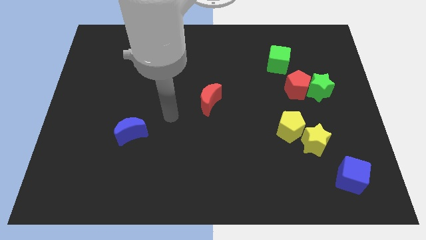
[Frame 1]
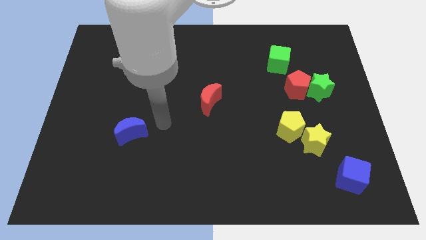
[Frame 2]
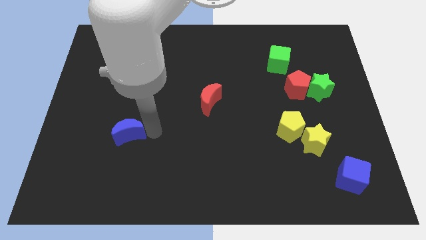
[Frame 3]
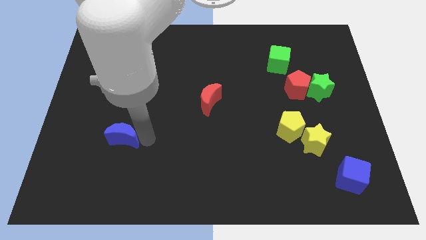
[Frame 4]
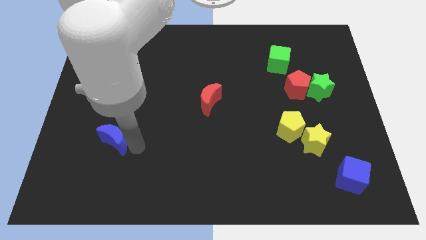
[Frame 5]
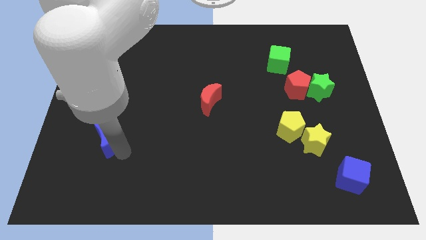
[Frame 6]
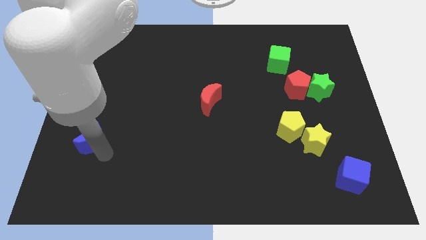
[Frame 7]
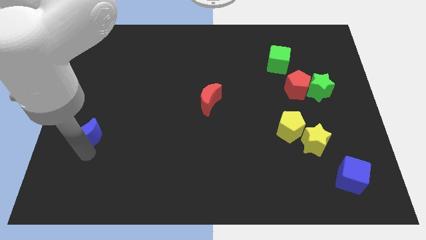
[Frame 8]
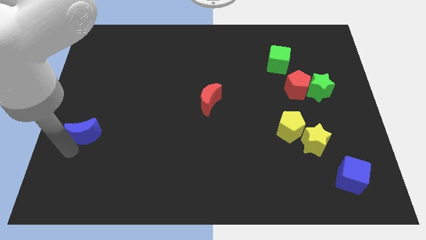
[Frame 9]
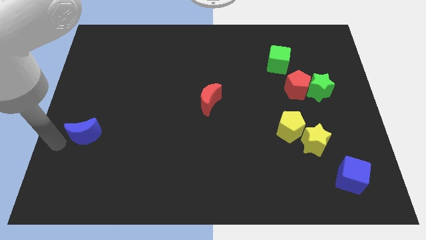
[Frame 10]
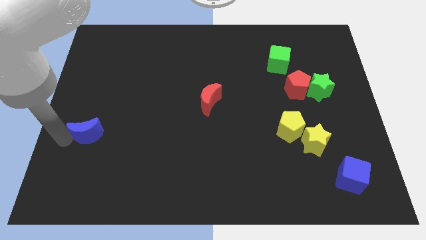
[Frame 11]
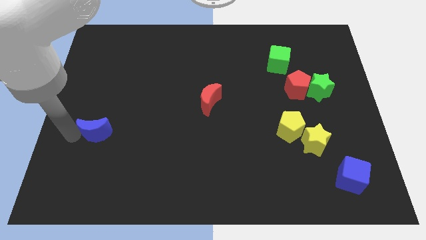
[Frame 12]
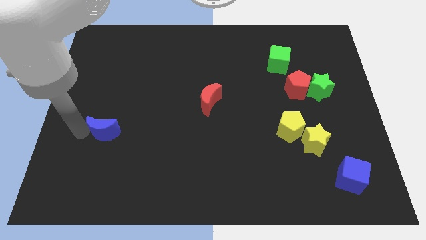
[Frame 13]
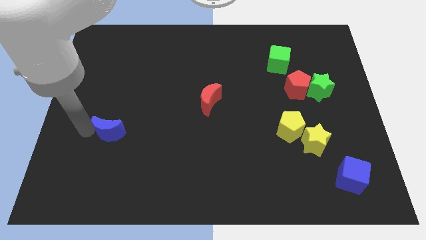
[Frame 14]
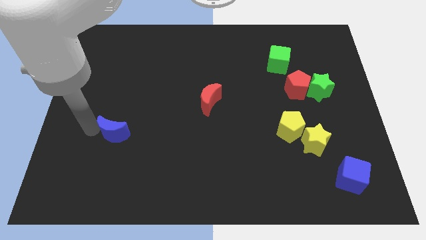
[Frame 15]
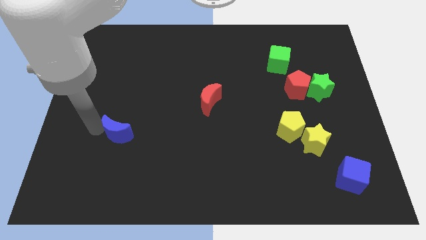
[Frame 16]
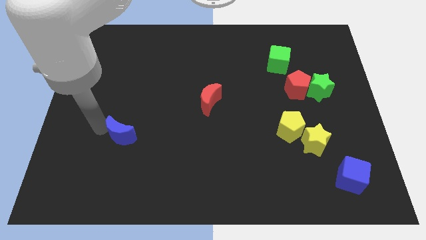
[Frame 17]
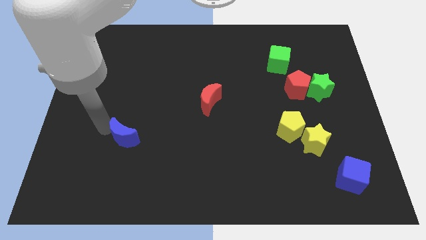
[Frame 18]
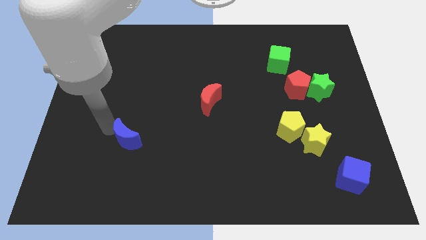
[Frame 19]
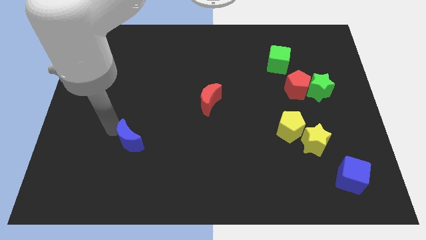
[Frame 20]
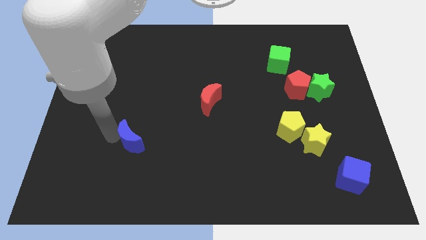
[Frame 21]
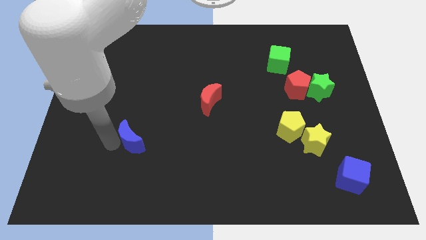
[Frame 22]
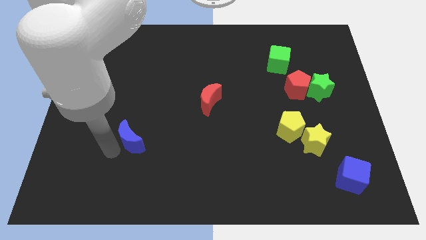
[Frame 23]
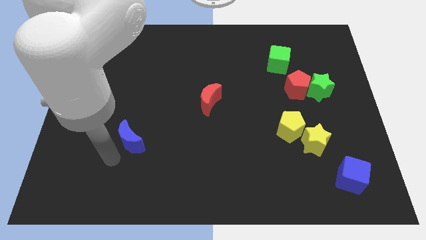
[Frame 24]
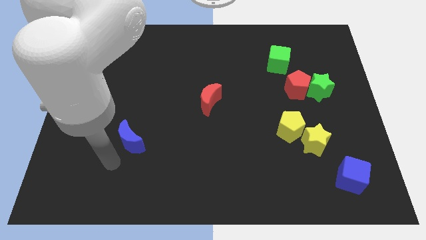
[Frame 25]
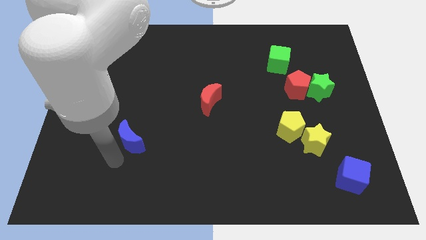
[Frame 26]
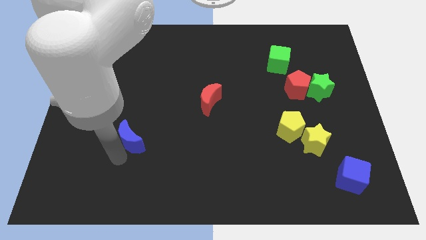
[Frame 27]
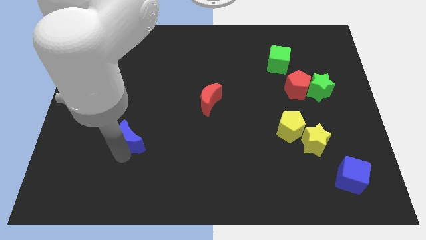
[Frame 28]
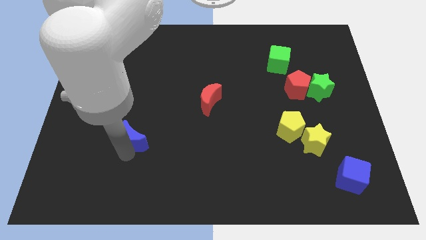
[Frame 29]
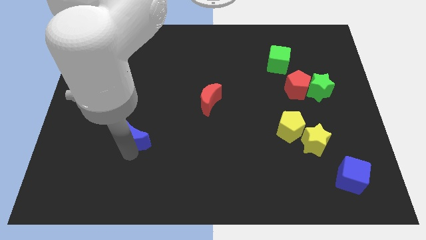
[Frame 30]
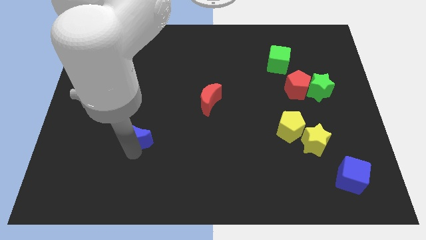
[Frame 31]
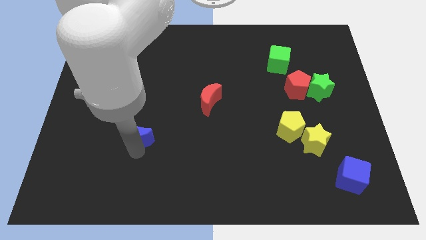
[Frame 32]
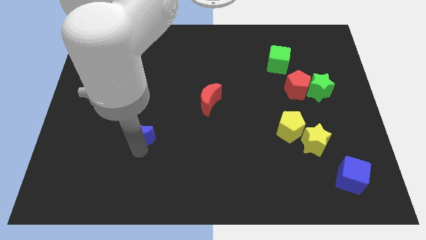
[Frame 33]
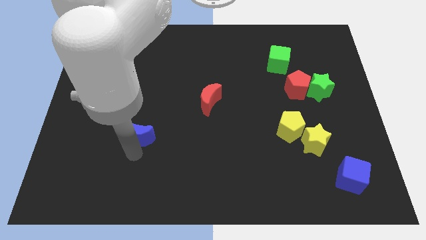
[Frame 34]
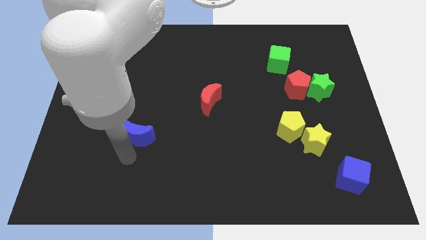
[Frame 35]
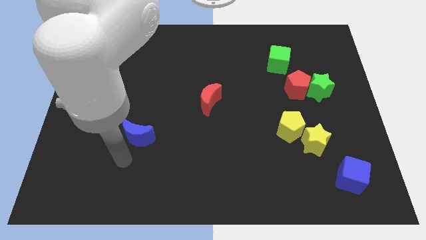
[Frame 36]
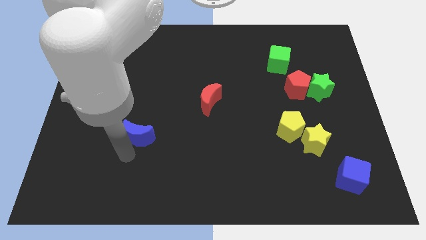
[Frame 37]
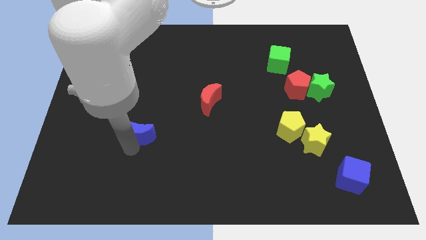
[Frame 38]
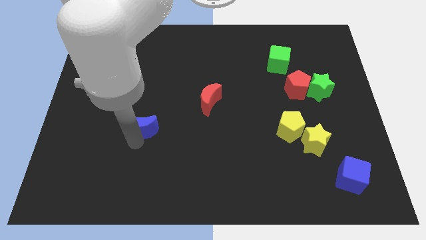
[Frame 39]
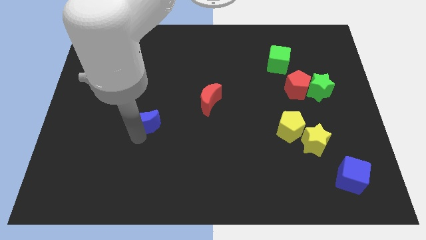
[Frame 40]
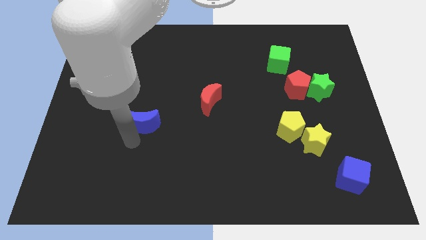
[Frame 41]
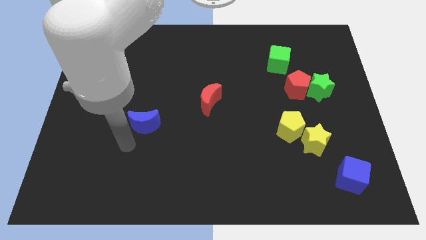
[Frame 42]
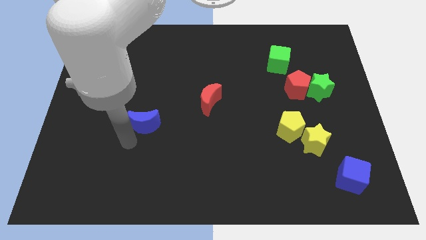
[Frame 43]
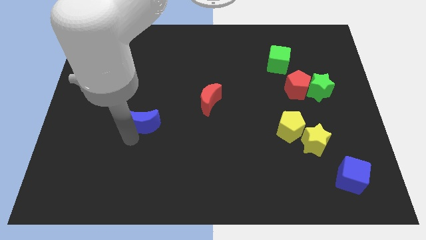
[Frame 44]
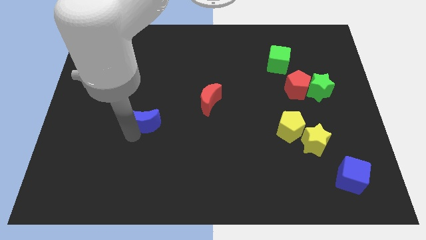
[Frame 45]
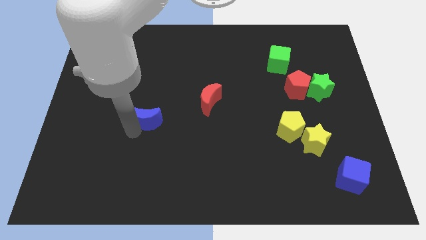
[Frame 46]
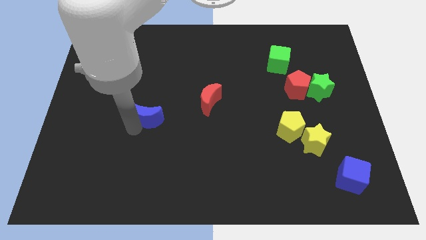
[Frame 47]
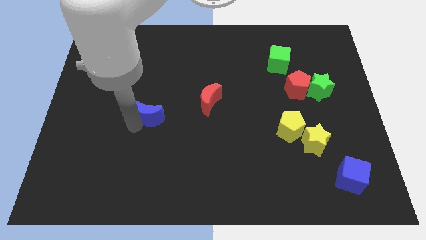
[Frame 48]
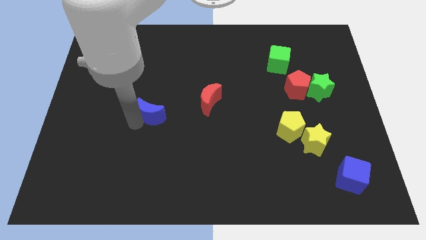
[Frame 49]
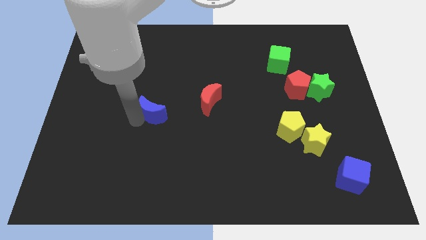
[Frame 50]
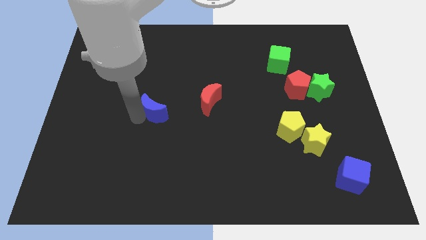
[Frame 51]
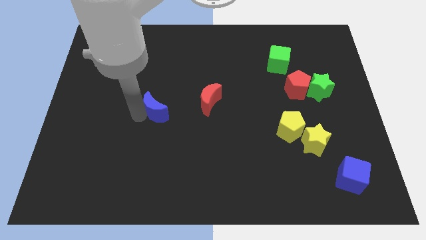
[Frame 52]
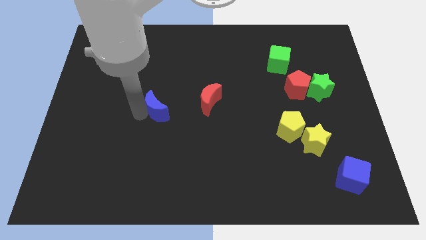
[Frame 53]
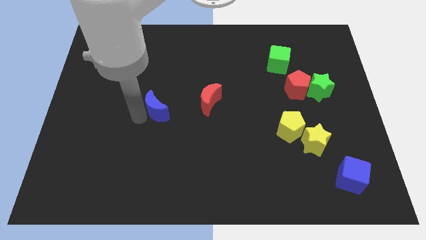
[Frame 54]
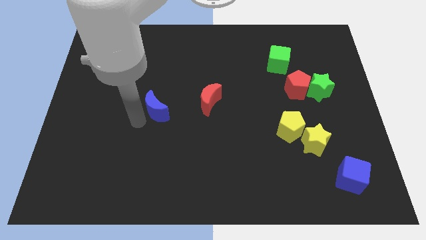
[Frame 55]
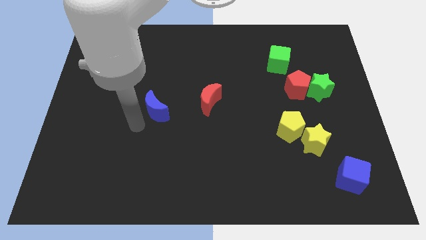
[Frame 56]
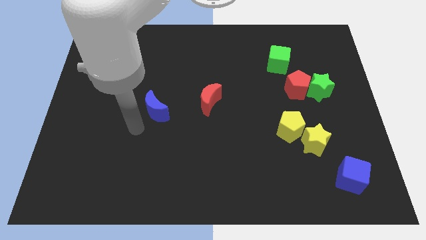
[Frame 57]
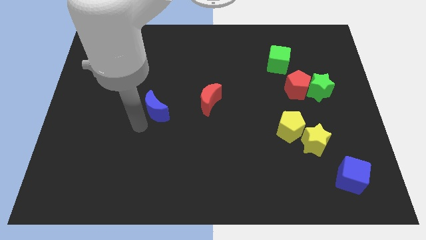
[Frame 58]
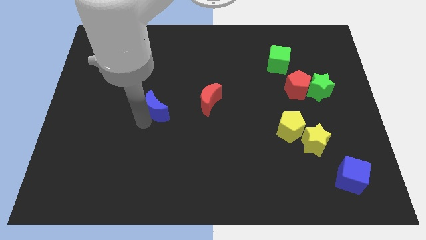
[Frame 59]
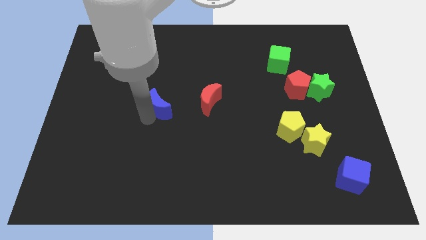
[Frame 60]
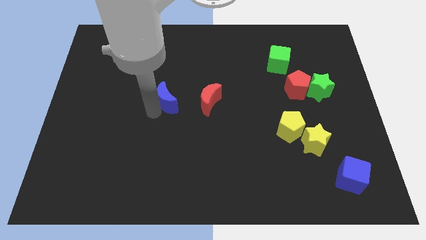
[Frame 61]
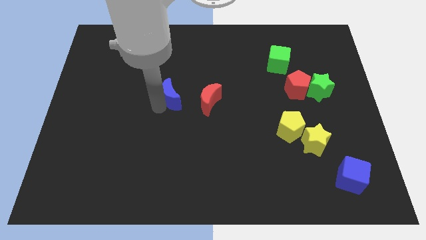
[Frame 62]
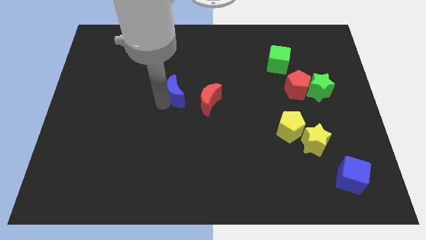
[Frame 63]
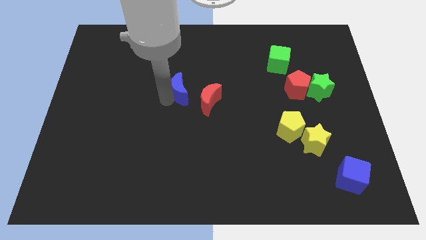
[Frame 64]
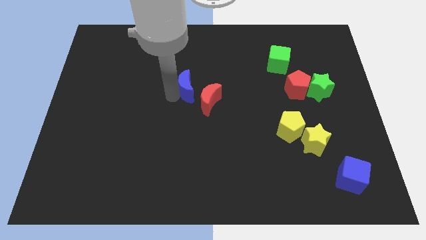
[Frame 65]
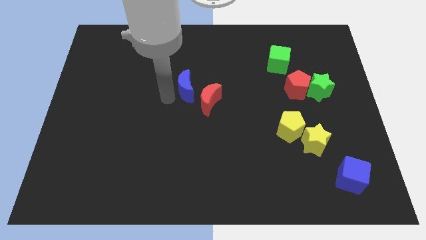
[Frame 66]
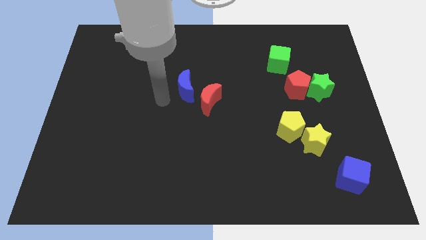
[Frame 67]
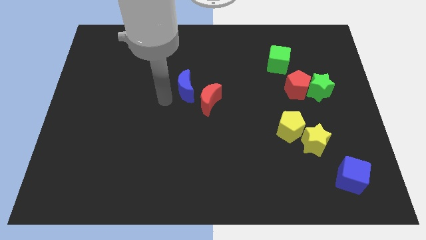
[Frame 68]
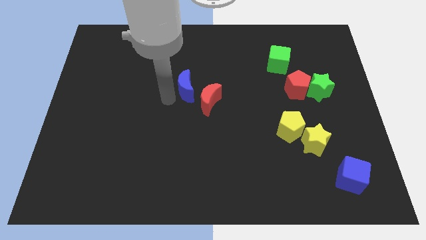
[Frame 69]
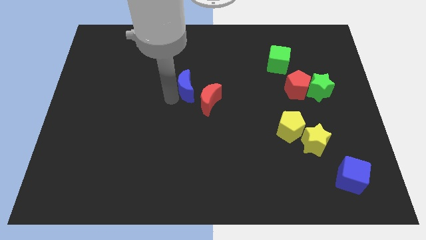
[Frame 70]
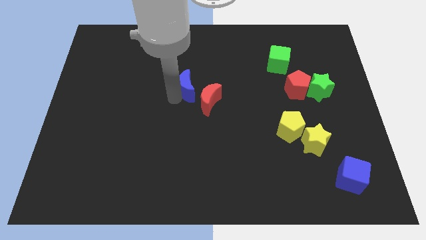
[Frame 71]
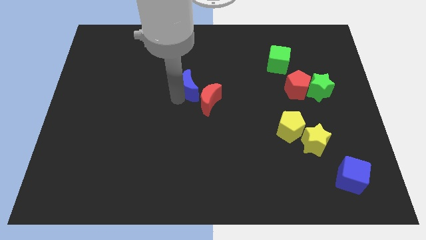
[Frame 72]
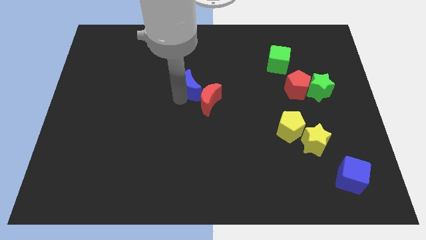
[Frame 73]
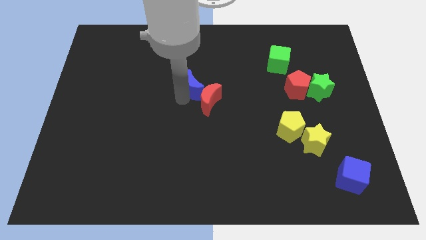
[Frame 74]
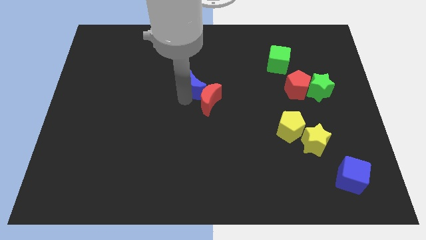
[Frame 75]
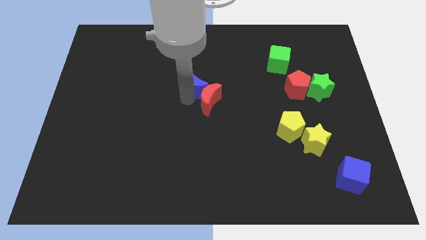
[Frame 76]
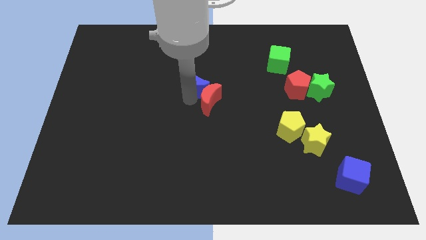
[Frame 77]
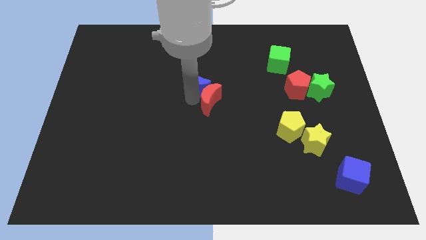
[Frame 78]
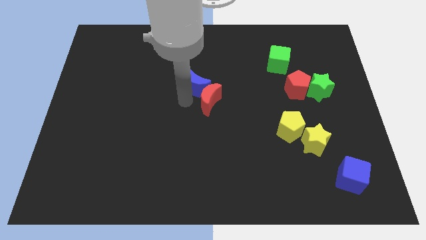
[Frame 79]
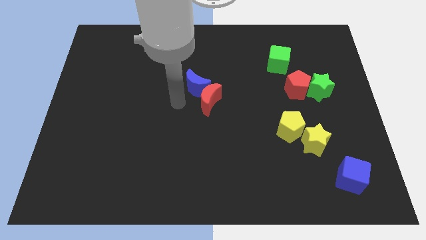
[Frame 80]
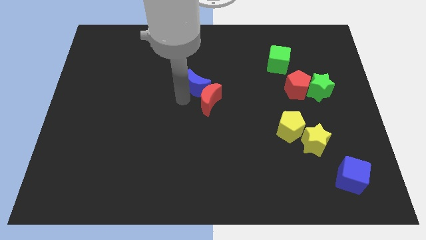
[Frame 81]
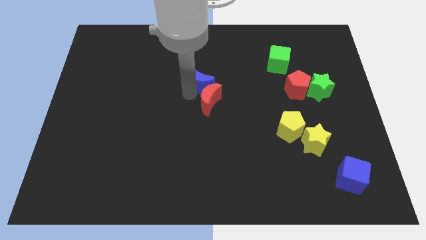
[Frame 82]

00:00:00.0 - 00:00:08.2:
move the blue moon upwards and then right
